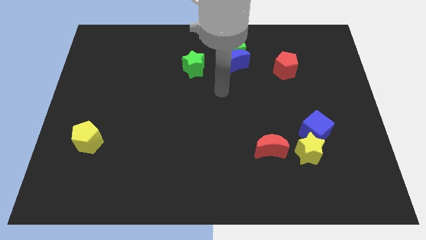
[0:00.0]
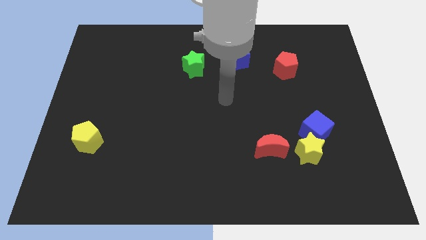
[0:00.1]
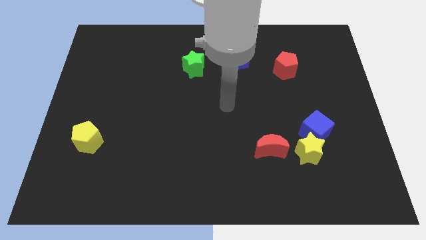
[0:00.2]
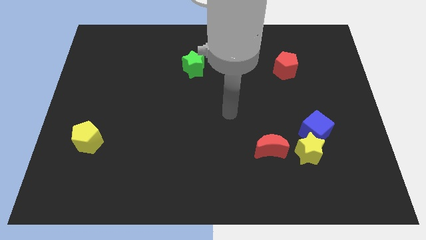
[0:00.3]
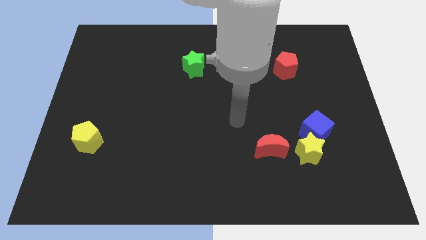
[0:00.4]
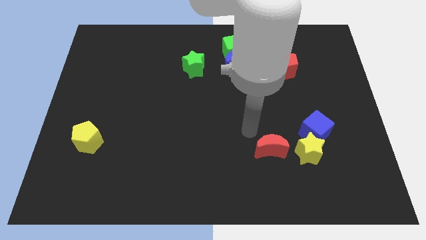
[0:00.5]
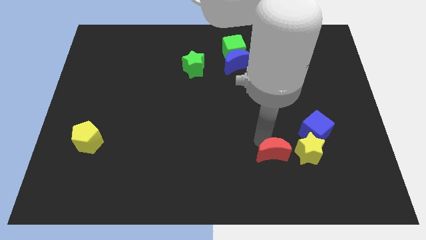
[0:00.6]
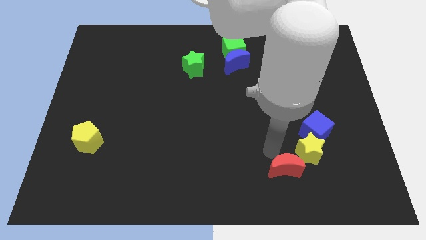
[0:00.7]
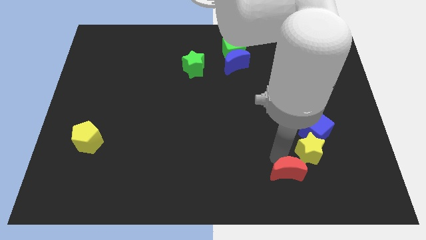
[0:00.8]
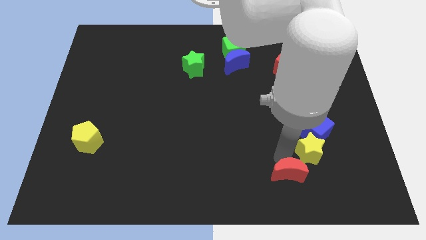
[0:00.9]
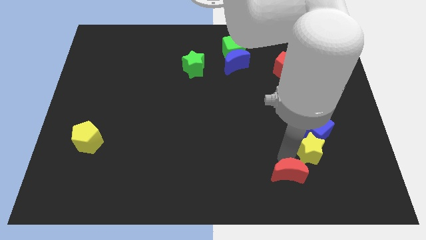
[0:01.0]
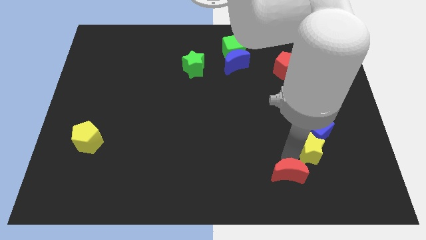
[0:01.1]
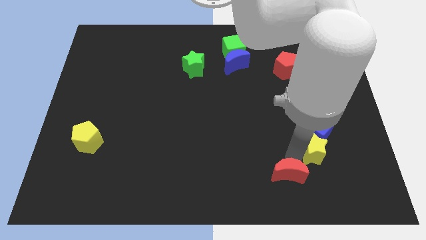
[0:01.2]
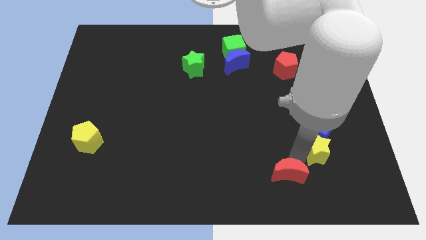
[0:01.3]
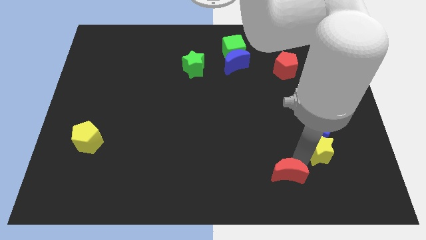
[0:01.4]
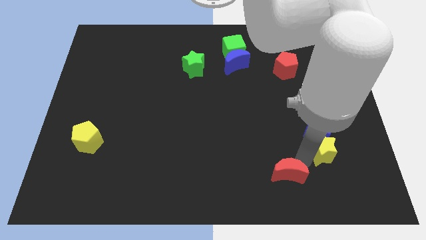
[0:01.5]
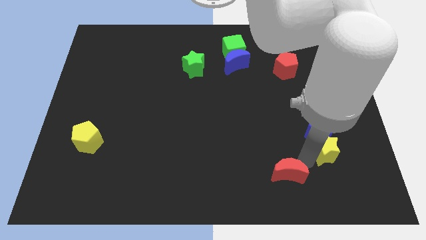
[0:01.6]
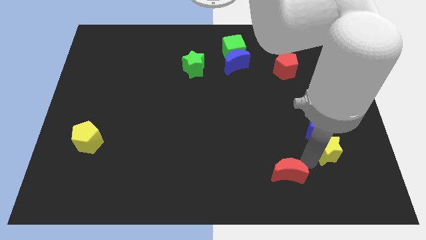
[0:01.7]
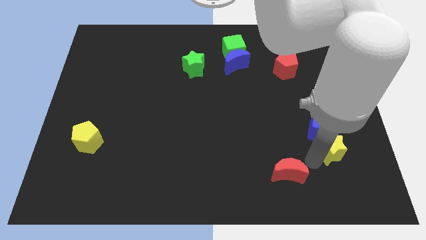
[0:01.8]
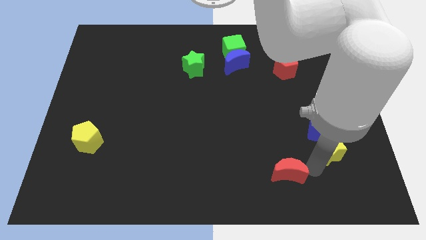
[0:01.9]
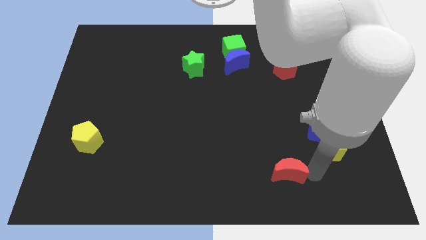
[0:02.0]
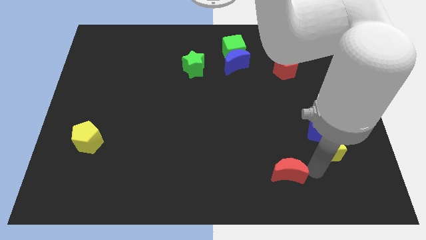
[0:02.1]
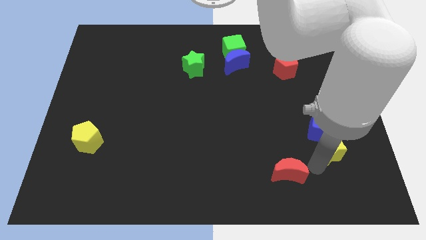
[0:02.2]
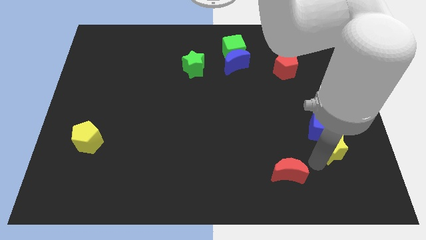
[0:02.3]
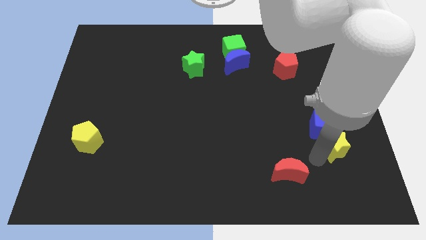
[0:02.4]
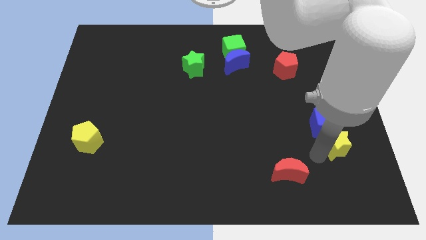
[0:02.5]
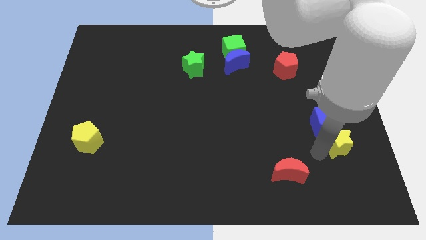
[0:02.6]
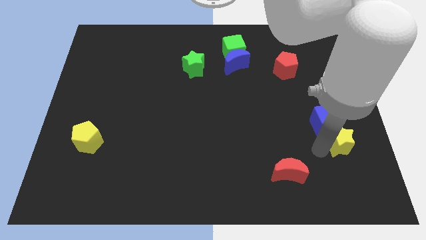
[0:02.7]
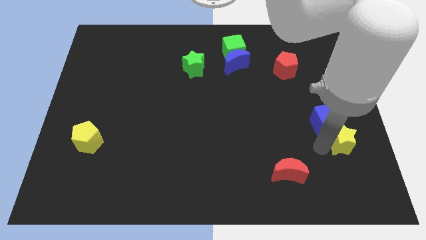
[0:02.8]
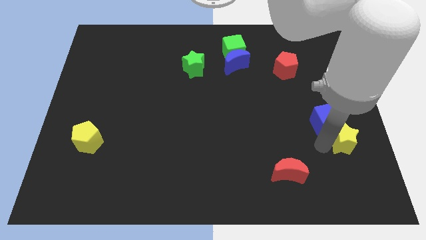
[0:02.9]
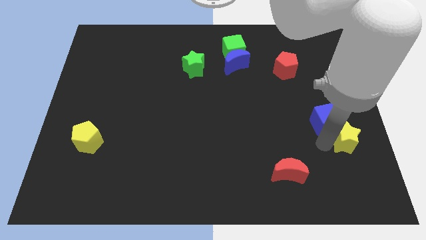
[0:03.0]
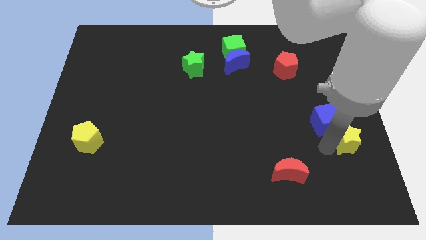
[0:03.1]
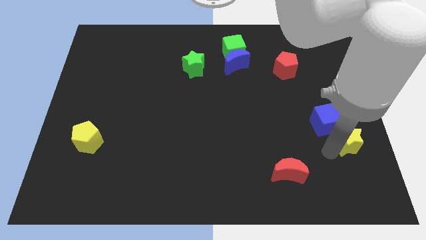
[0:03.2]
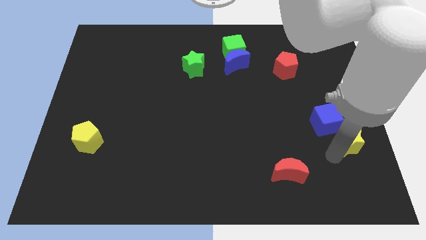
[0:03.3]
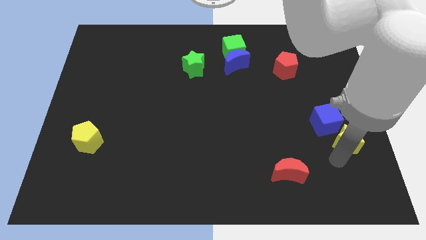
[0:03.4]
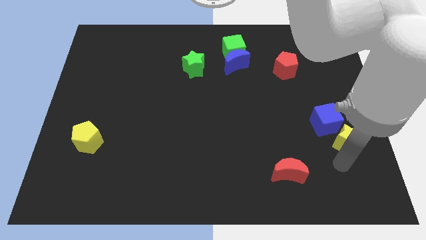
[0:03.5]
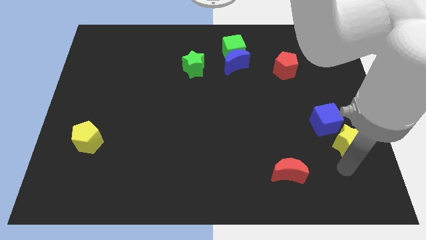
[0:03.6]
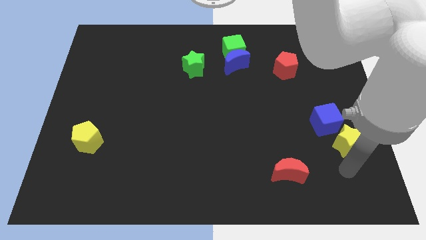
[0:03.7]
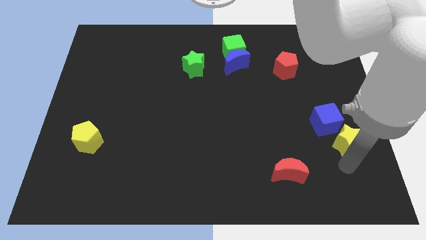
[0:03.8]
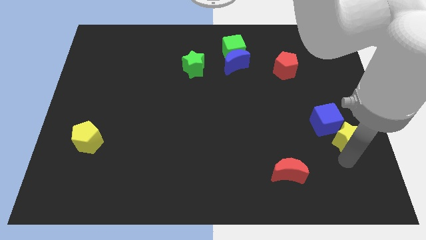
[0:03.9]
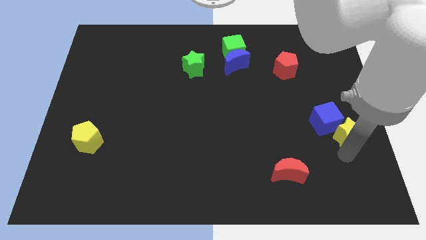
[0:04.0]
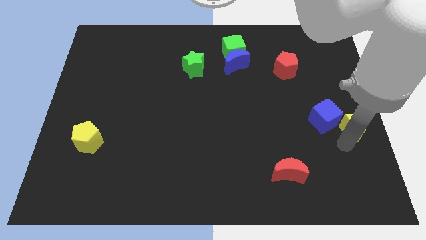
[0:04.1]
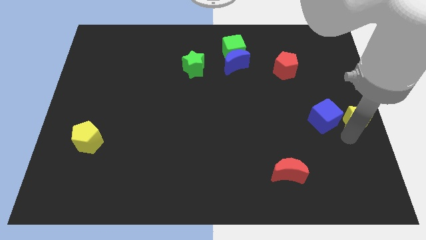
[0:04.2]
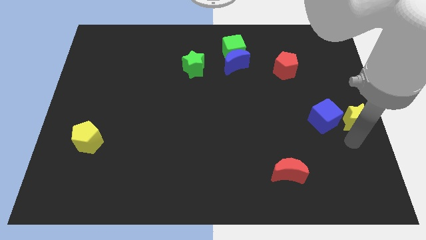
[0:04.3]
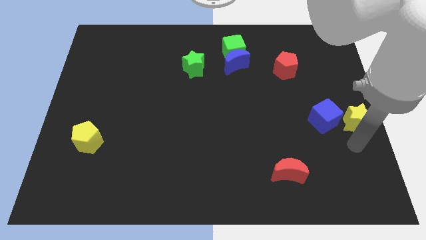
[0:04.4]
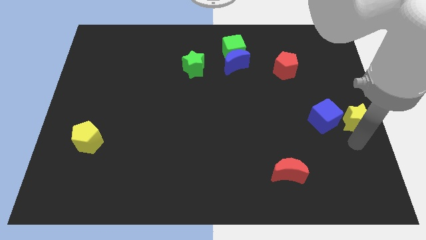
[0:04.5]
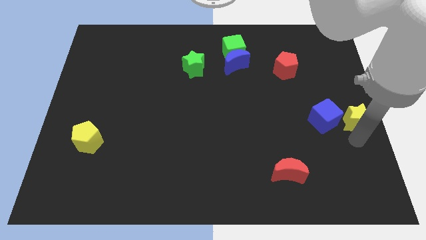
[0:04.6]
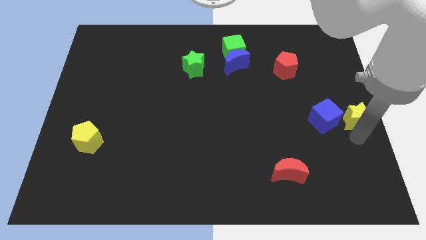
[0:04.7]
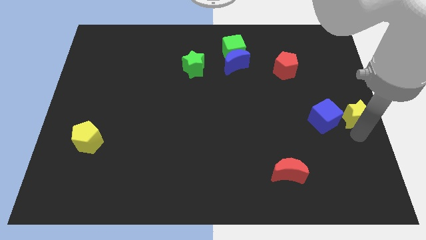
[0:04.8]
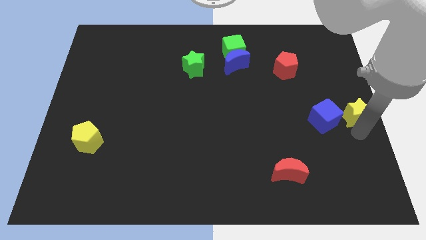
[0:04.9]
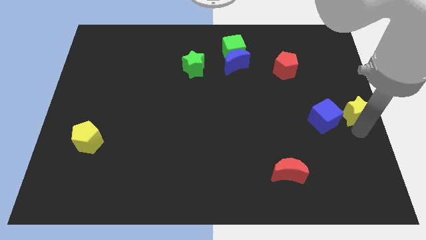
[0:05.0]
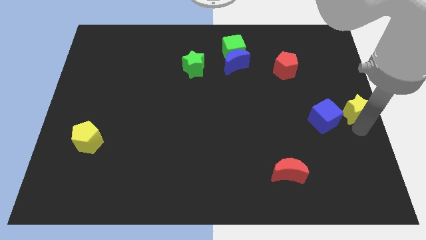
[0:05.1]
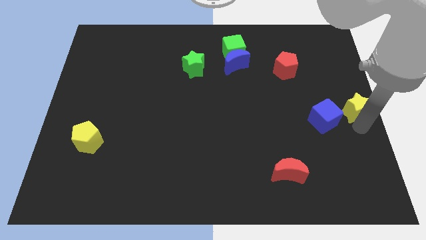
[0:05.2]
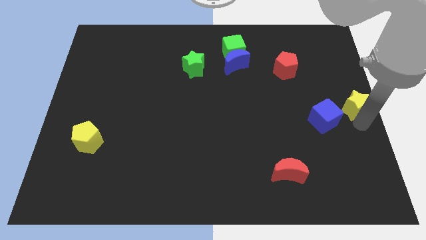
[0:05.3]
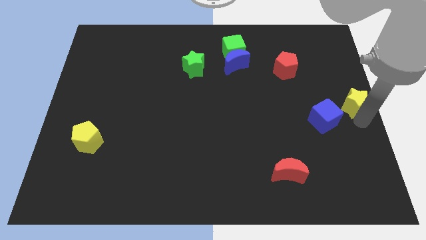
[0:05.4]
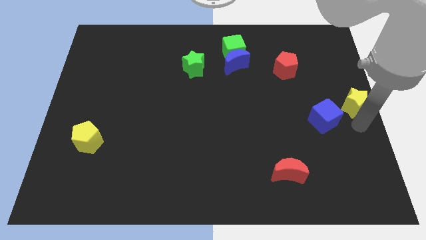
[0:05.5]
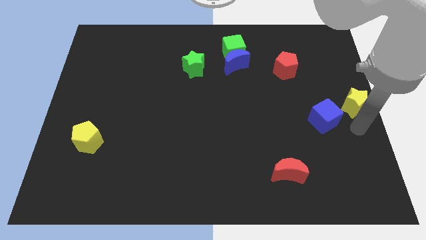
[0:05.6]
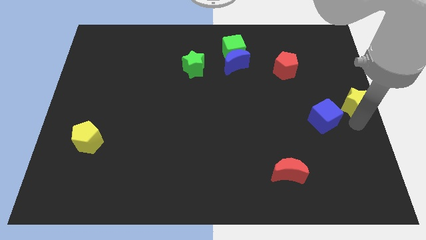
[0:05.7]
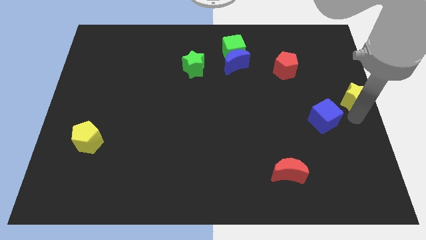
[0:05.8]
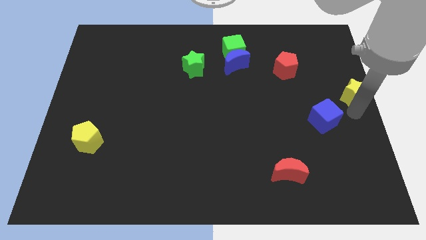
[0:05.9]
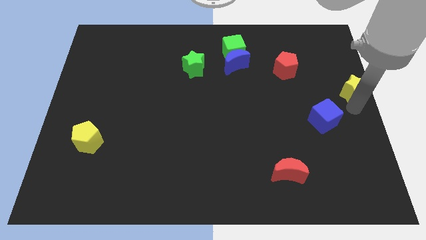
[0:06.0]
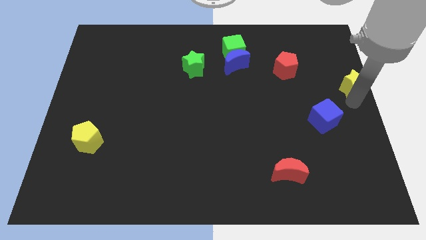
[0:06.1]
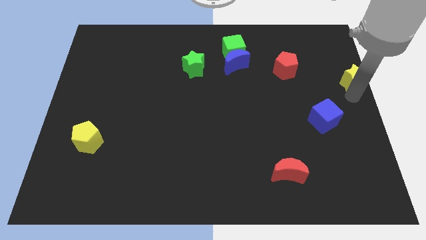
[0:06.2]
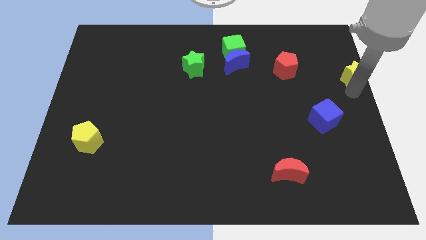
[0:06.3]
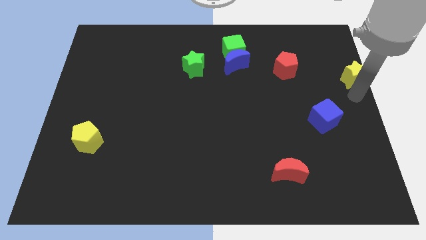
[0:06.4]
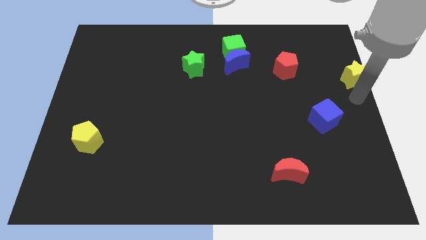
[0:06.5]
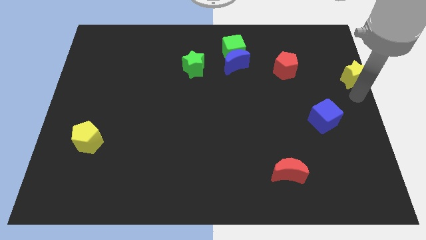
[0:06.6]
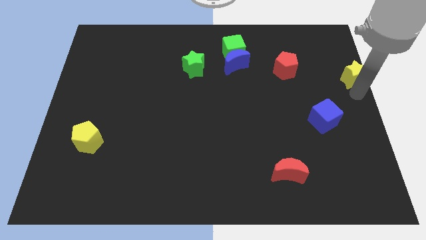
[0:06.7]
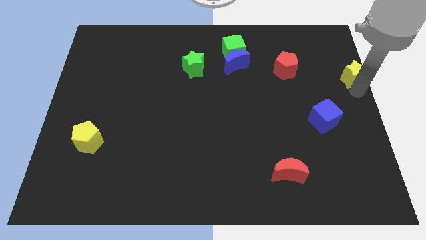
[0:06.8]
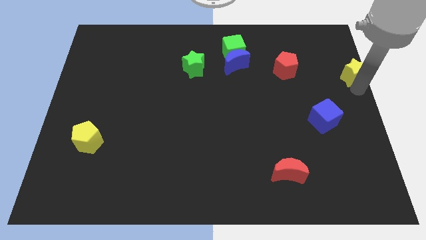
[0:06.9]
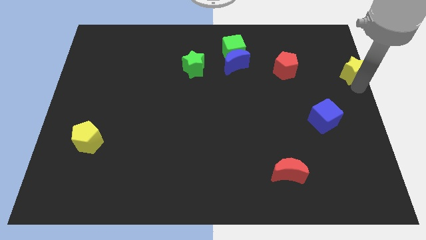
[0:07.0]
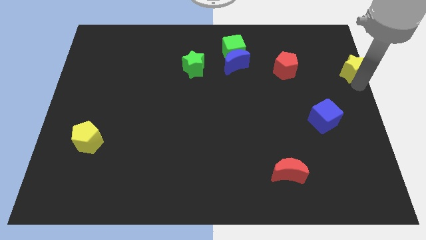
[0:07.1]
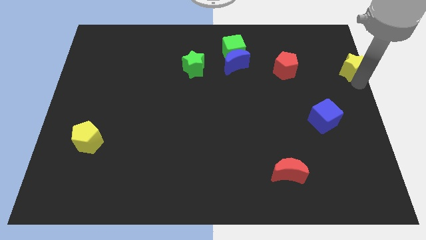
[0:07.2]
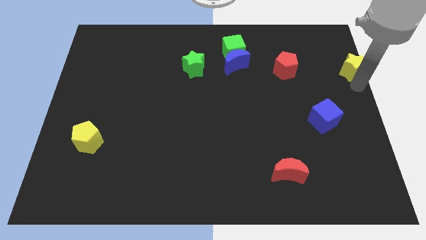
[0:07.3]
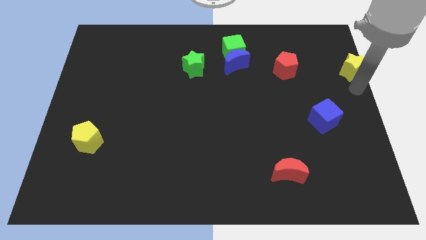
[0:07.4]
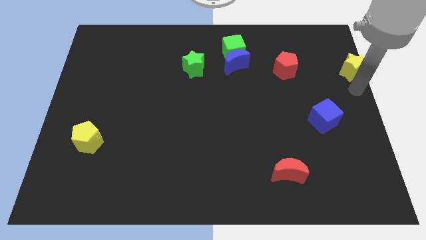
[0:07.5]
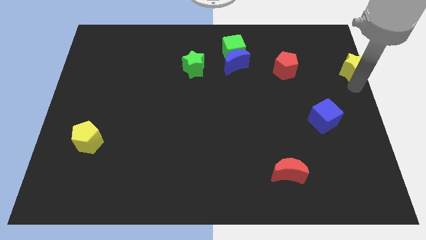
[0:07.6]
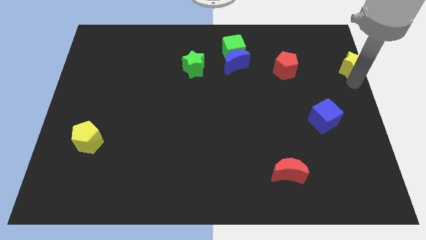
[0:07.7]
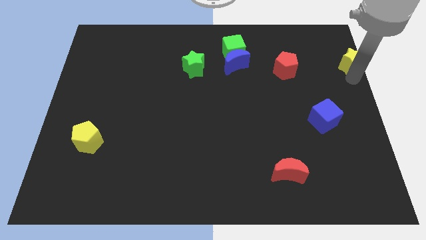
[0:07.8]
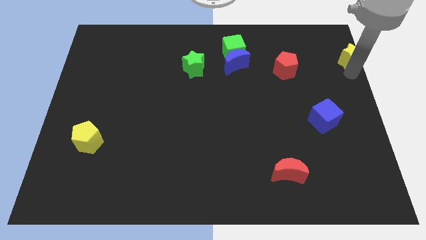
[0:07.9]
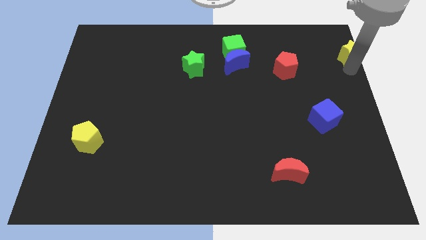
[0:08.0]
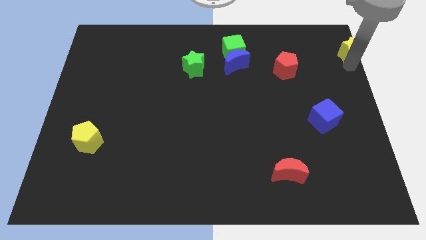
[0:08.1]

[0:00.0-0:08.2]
put the yellow star to the top right of the board
